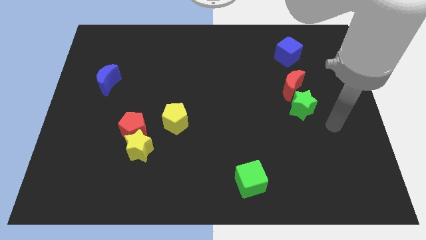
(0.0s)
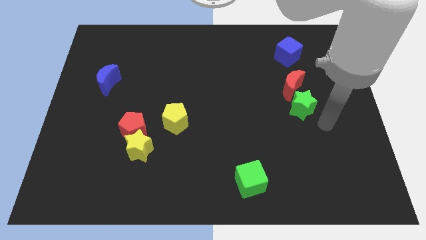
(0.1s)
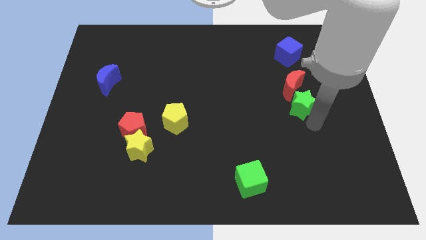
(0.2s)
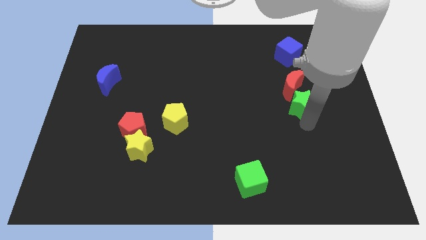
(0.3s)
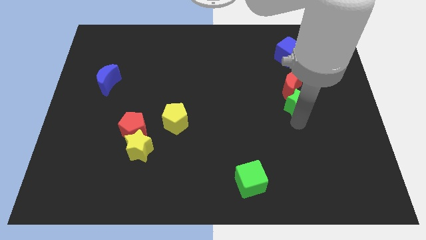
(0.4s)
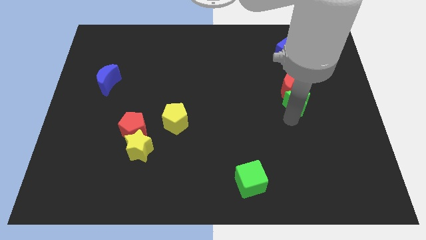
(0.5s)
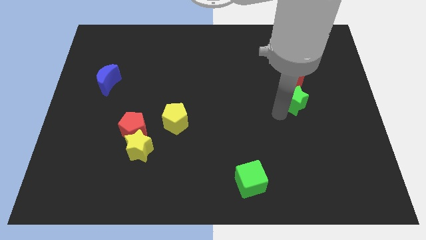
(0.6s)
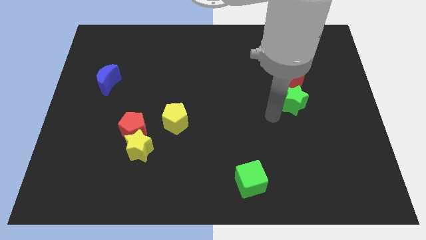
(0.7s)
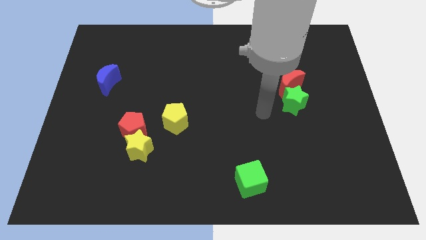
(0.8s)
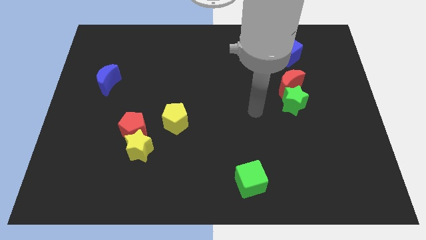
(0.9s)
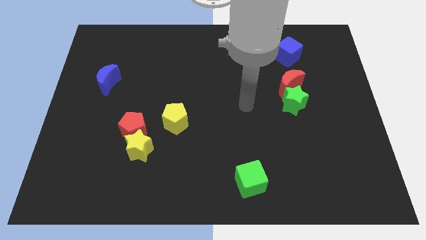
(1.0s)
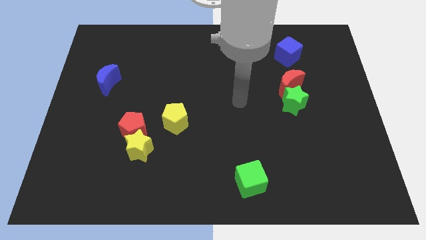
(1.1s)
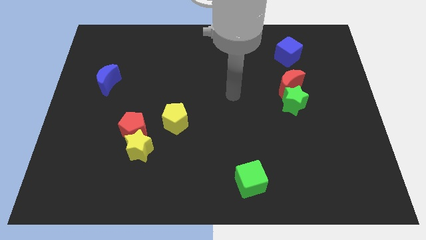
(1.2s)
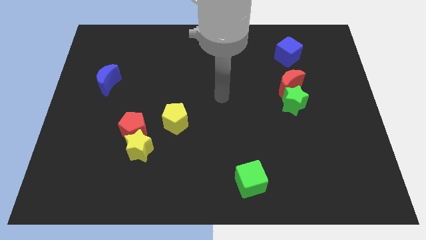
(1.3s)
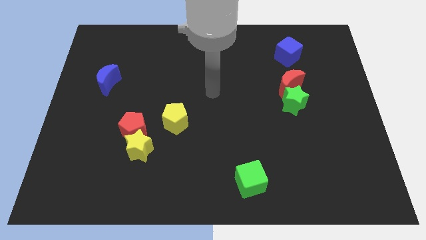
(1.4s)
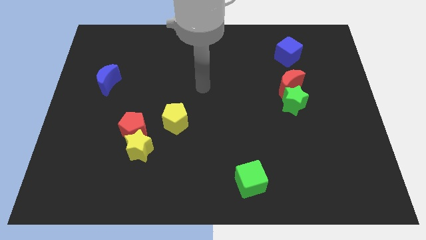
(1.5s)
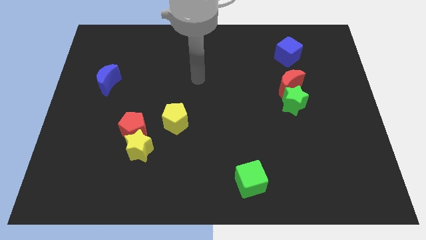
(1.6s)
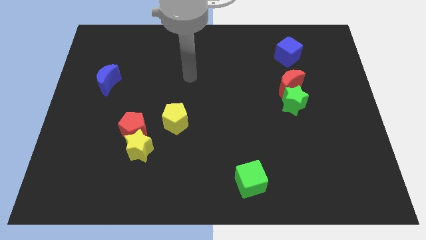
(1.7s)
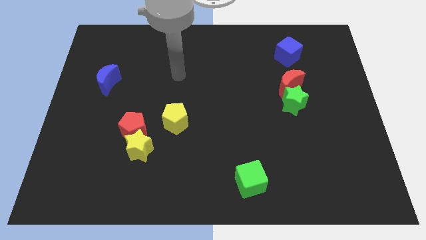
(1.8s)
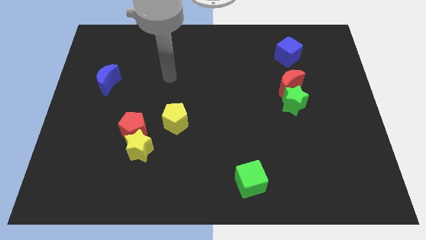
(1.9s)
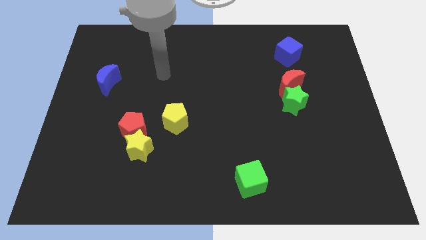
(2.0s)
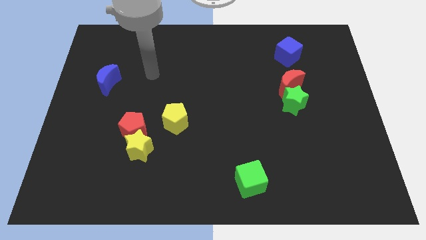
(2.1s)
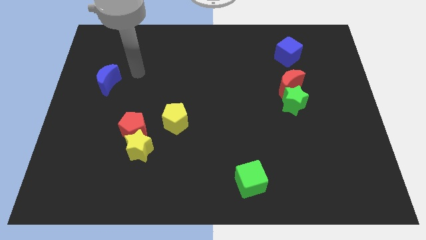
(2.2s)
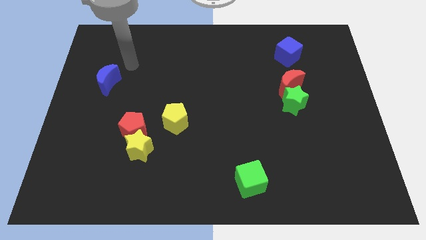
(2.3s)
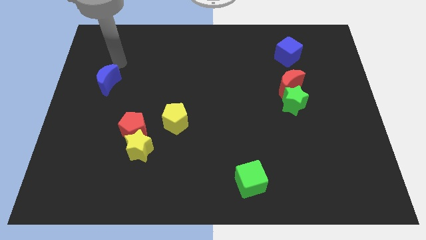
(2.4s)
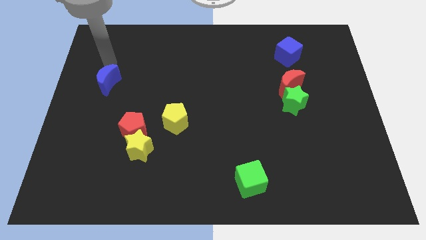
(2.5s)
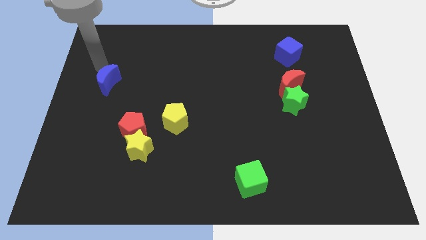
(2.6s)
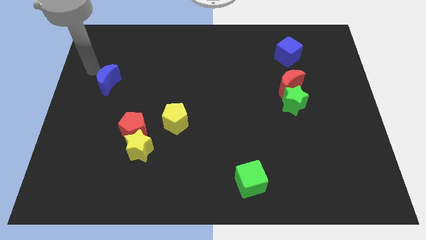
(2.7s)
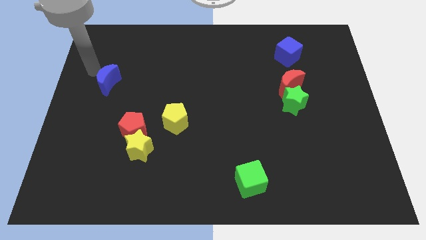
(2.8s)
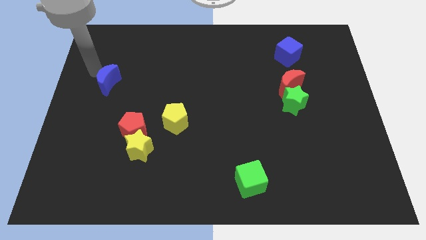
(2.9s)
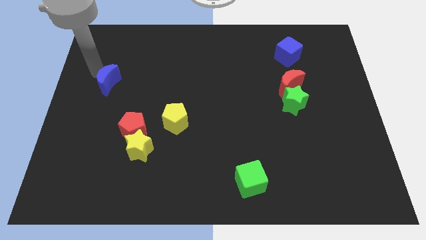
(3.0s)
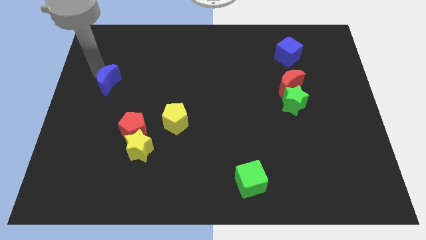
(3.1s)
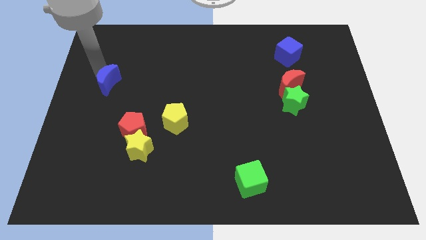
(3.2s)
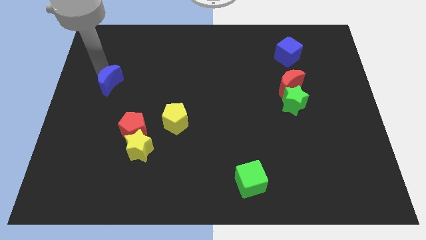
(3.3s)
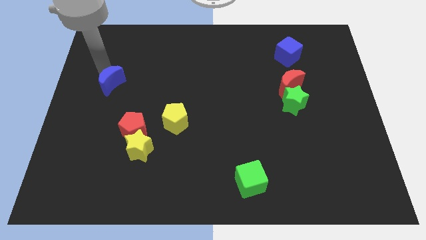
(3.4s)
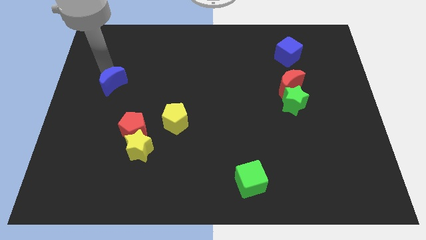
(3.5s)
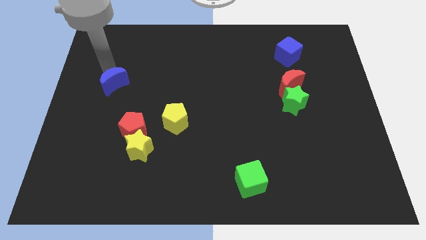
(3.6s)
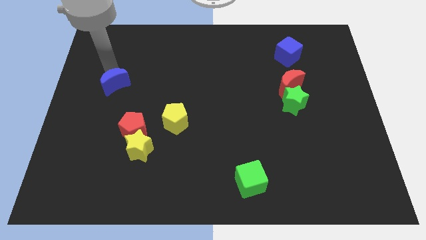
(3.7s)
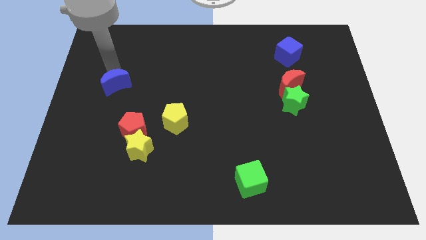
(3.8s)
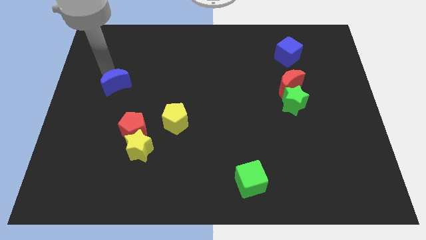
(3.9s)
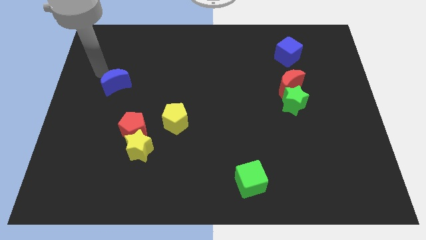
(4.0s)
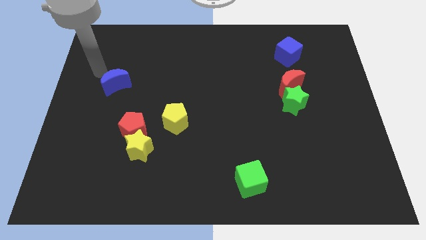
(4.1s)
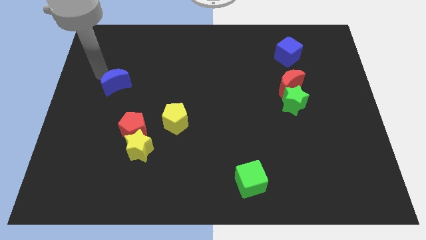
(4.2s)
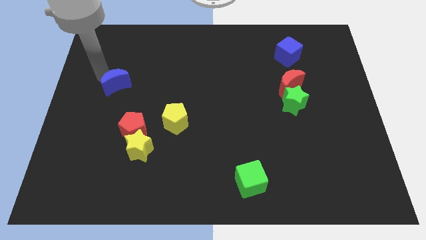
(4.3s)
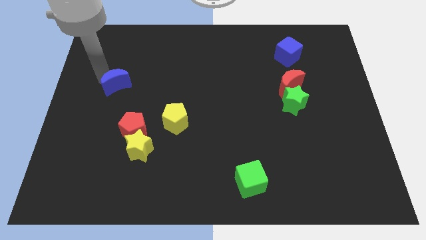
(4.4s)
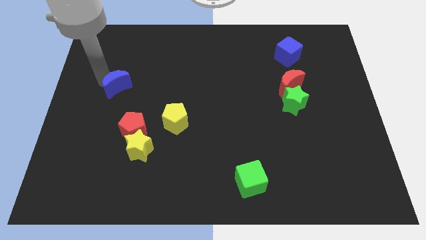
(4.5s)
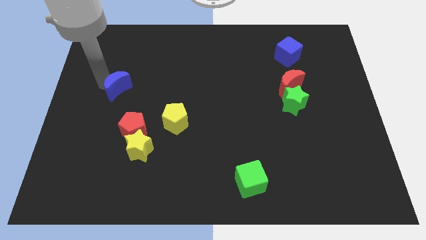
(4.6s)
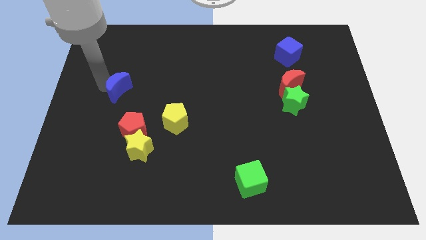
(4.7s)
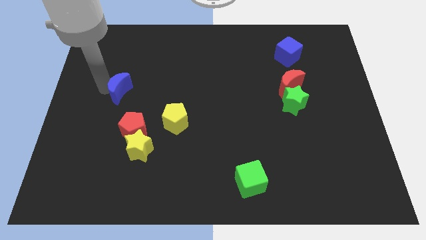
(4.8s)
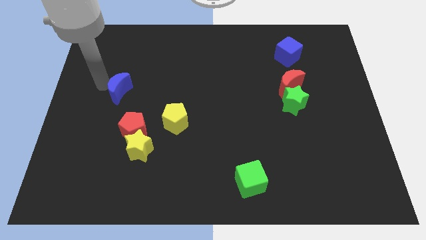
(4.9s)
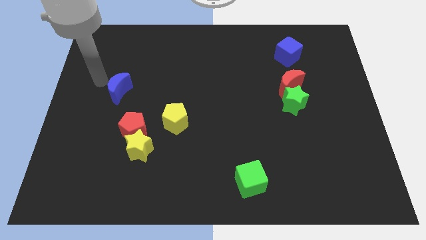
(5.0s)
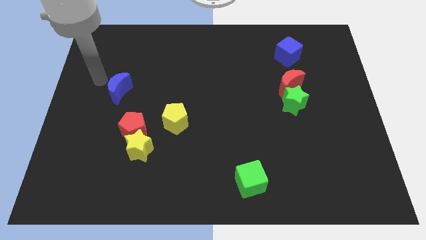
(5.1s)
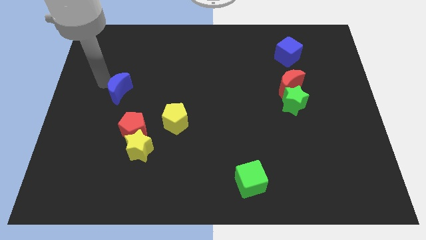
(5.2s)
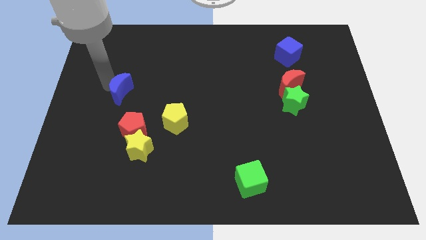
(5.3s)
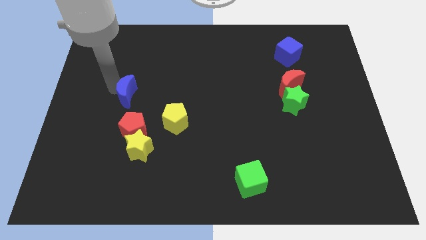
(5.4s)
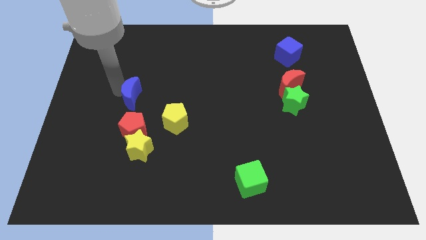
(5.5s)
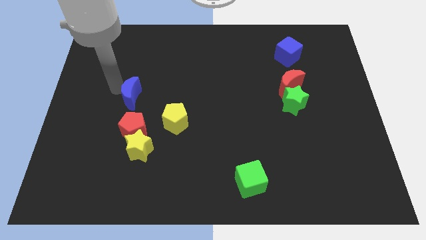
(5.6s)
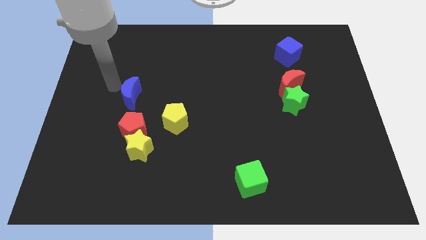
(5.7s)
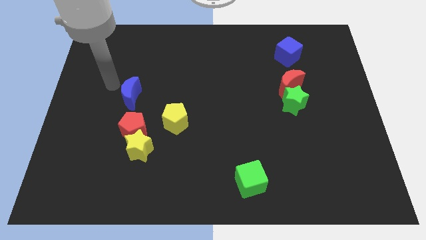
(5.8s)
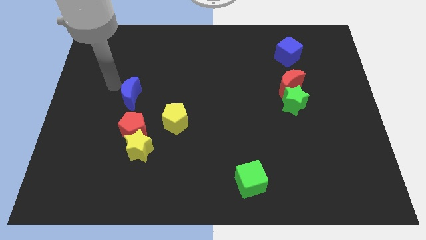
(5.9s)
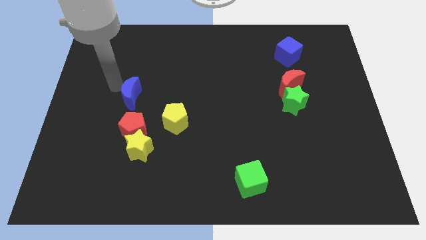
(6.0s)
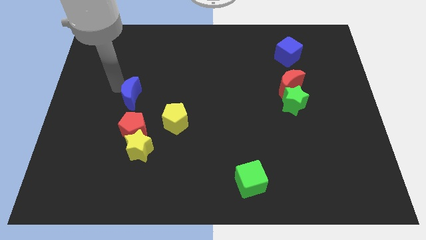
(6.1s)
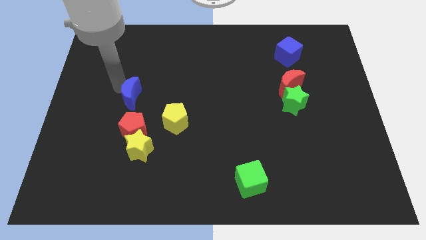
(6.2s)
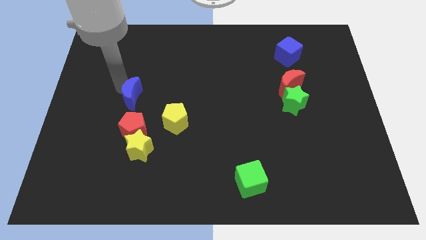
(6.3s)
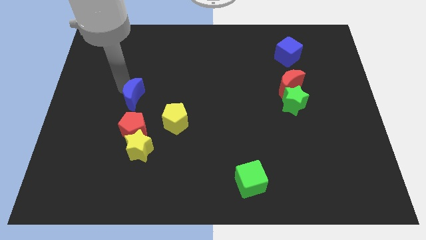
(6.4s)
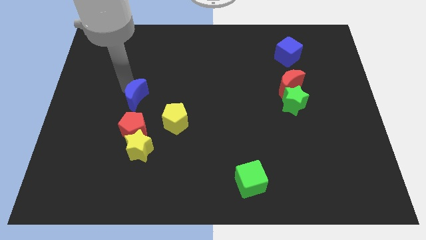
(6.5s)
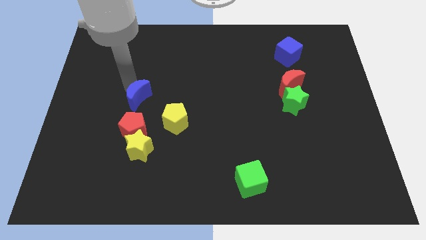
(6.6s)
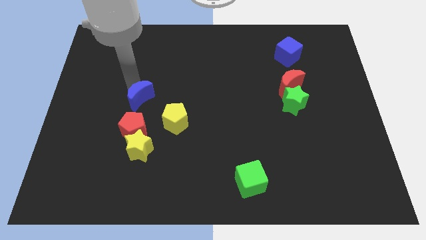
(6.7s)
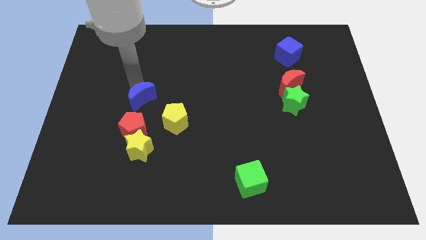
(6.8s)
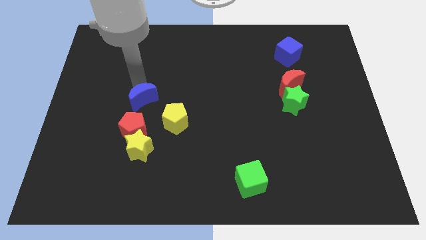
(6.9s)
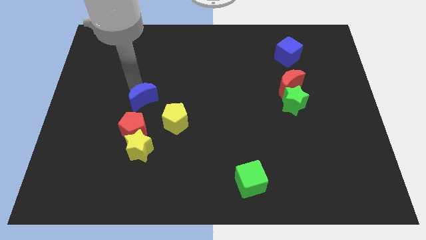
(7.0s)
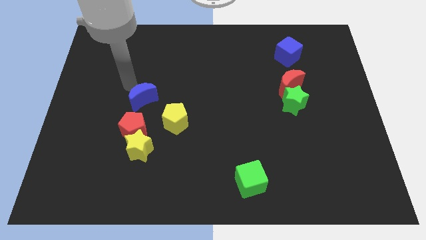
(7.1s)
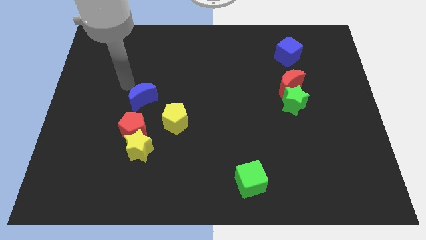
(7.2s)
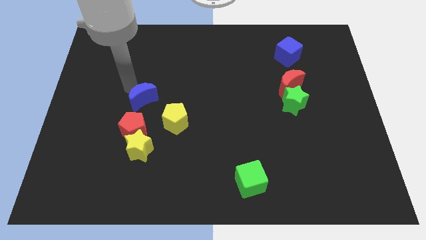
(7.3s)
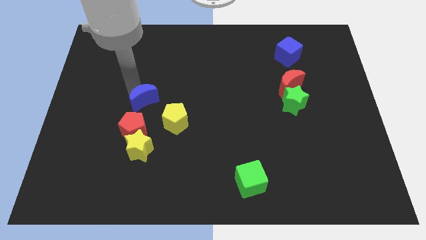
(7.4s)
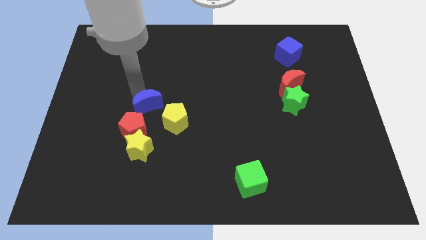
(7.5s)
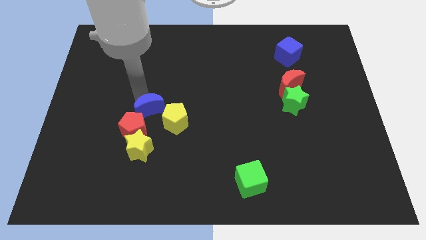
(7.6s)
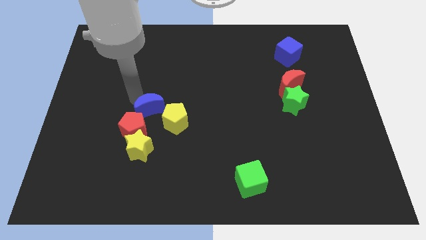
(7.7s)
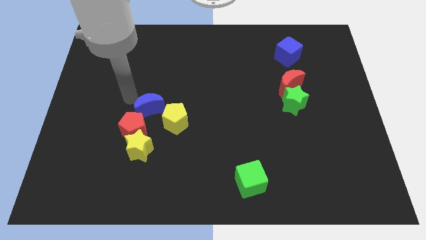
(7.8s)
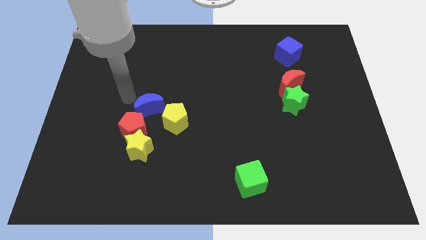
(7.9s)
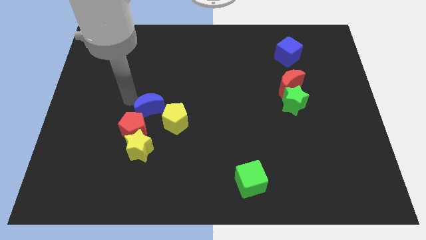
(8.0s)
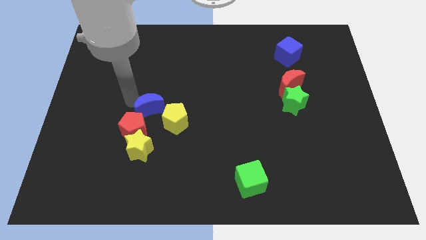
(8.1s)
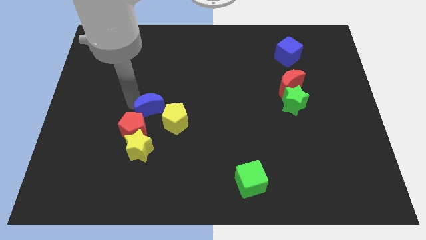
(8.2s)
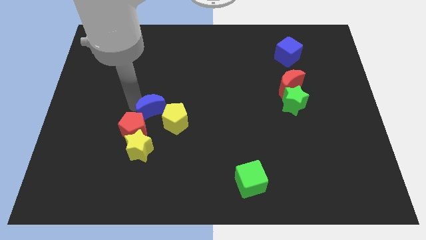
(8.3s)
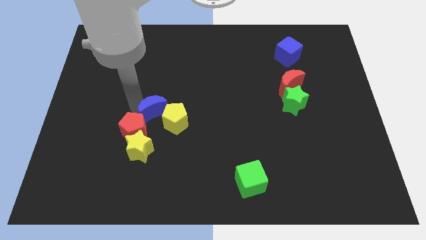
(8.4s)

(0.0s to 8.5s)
move the blue moon to the yellow pentagon
